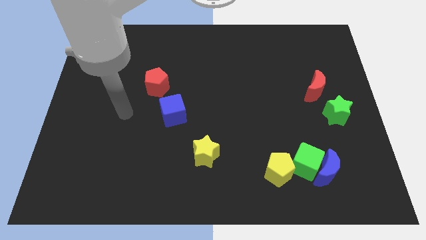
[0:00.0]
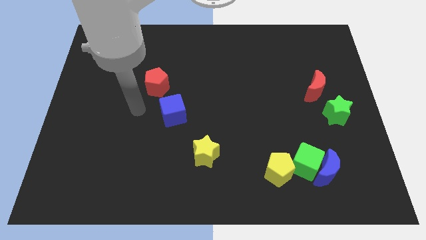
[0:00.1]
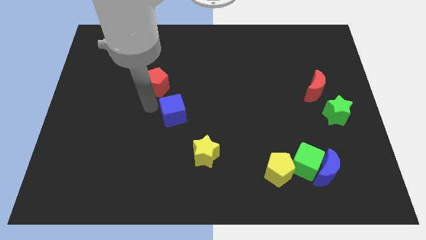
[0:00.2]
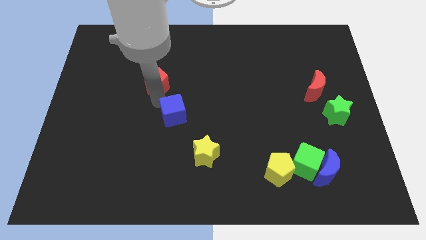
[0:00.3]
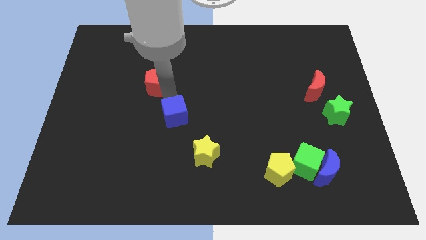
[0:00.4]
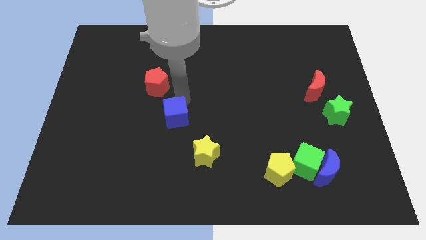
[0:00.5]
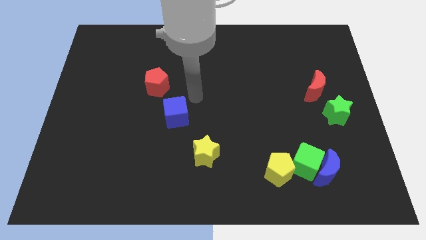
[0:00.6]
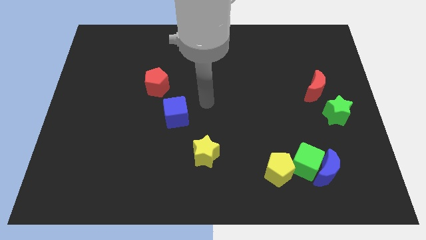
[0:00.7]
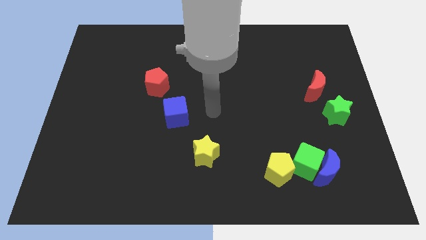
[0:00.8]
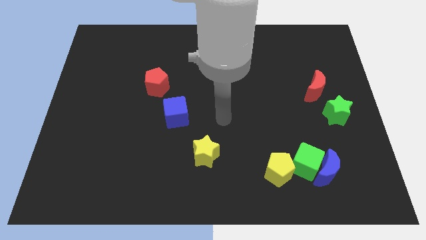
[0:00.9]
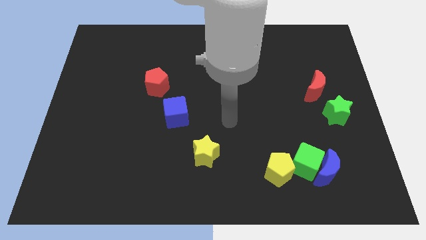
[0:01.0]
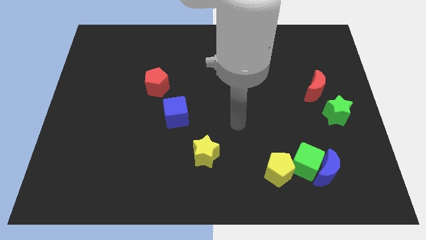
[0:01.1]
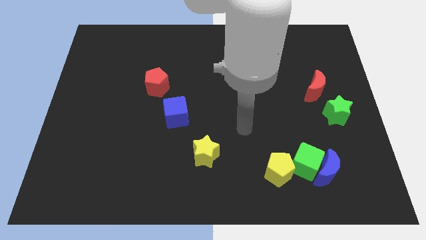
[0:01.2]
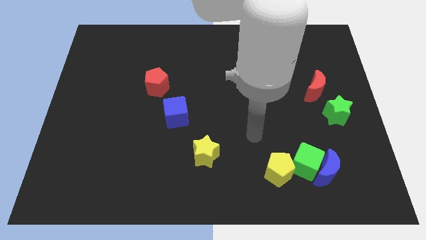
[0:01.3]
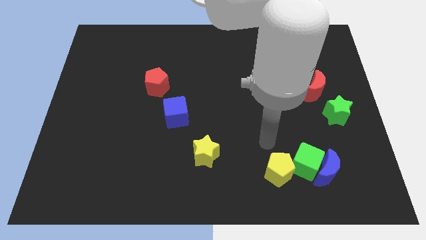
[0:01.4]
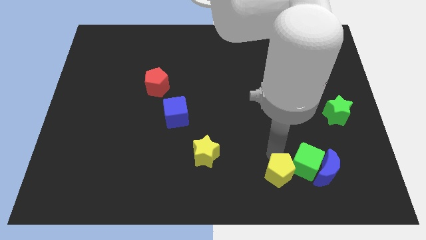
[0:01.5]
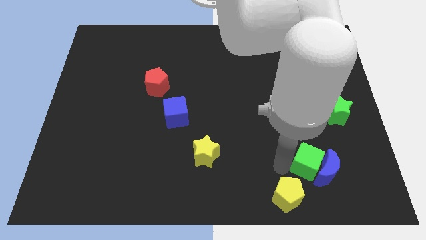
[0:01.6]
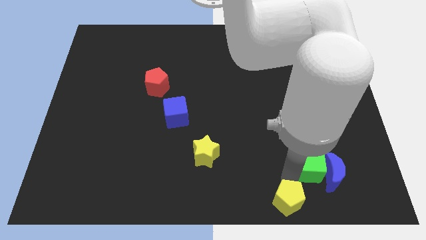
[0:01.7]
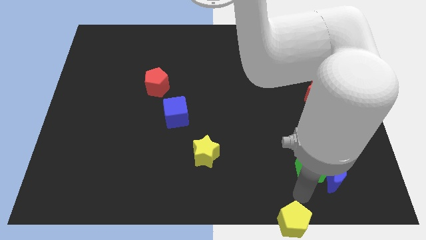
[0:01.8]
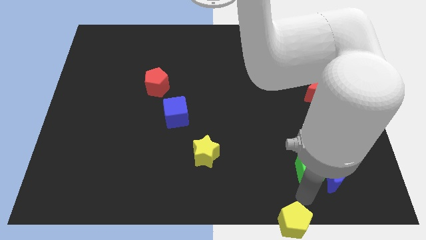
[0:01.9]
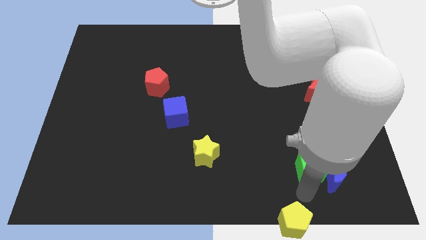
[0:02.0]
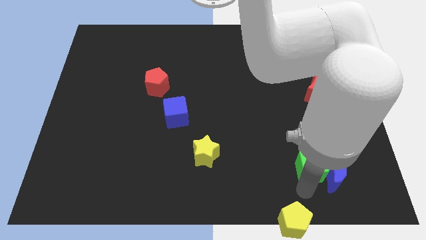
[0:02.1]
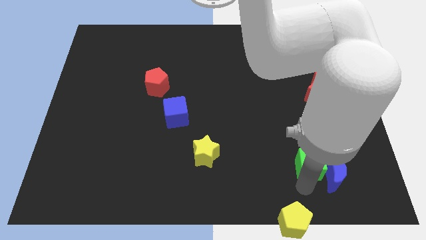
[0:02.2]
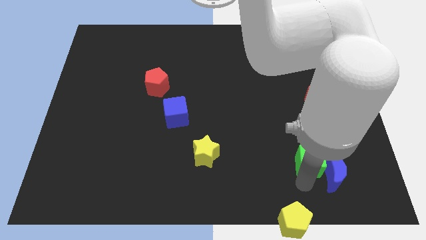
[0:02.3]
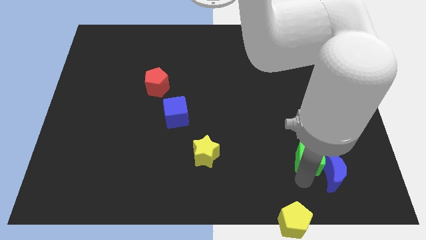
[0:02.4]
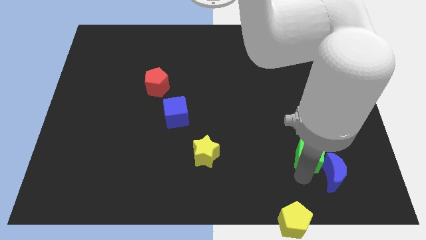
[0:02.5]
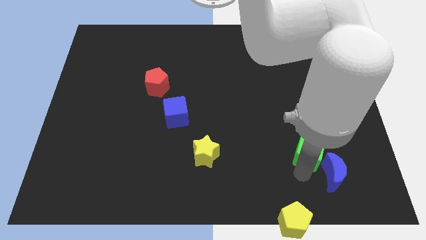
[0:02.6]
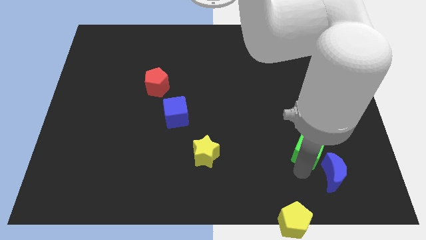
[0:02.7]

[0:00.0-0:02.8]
move the green cube away from the blue moon and yellow pentagon

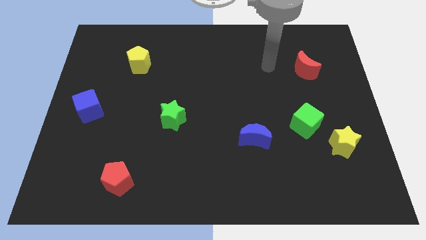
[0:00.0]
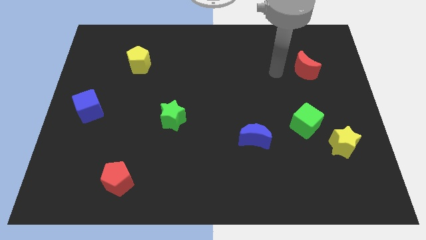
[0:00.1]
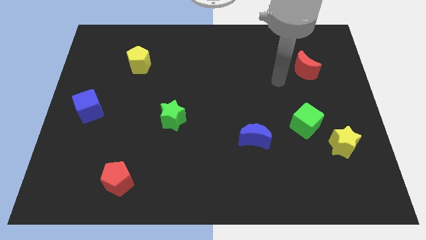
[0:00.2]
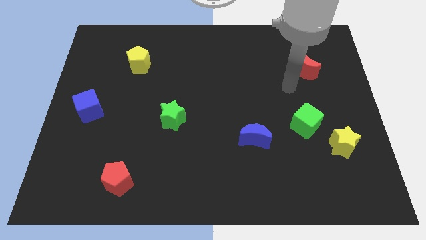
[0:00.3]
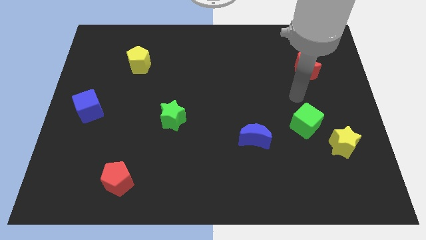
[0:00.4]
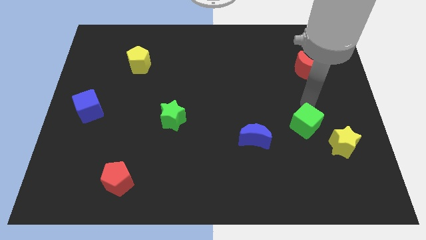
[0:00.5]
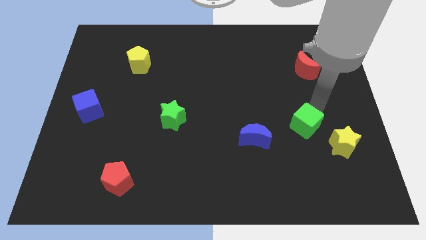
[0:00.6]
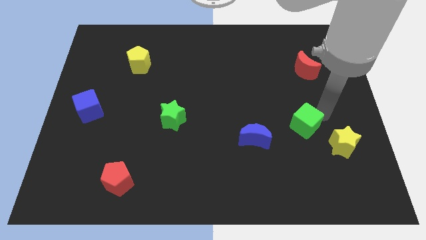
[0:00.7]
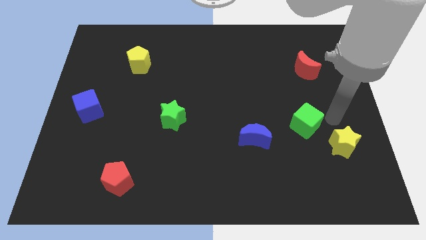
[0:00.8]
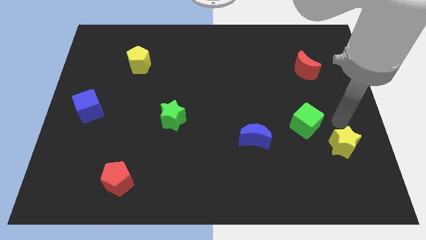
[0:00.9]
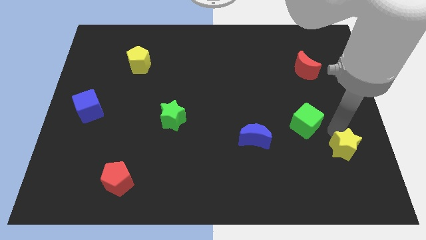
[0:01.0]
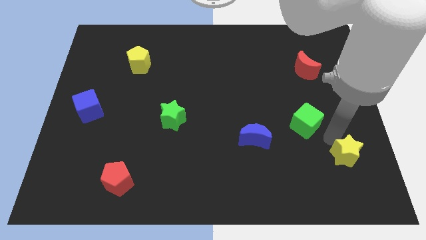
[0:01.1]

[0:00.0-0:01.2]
separate the green cube from the yellow star

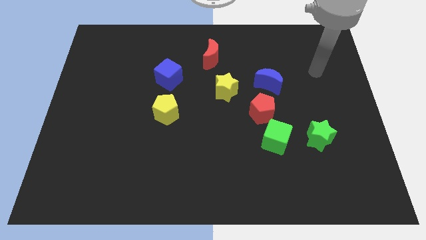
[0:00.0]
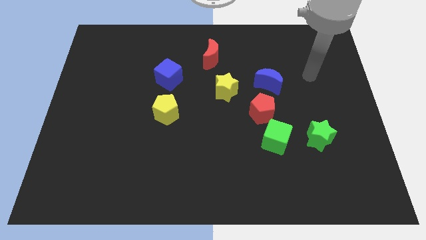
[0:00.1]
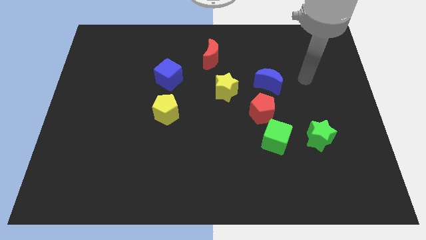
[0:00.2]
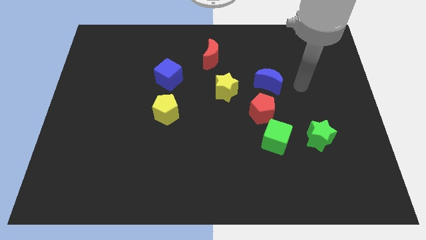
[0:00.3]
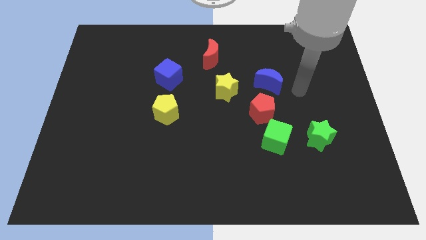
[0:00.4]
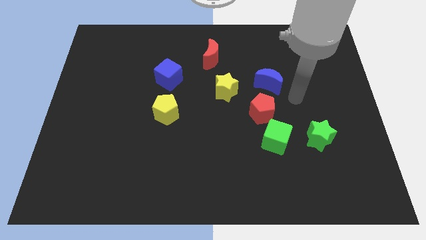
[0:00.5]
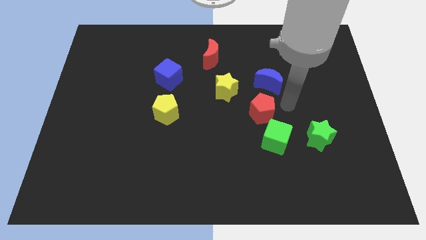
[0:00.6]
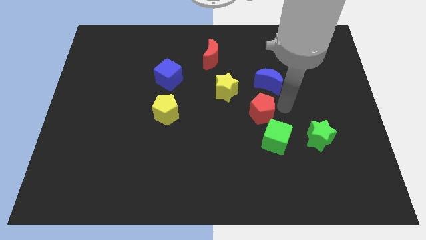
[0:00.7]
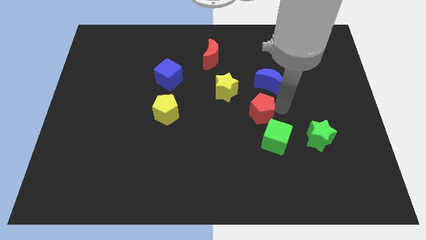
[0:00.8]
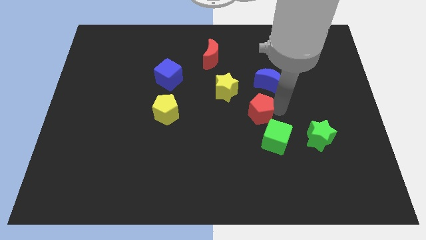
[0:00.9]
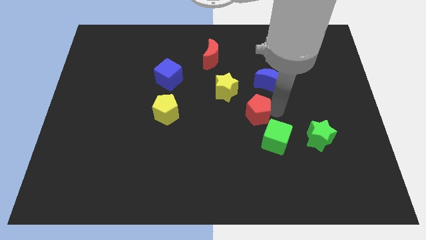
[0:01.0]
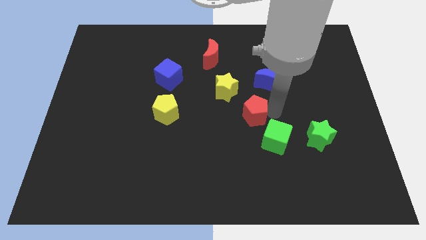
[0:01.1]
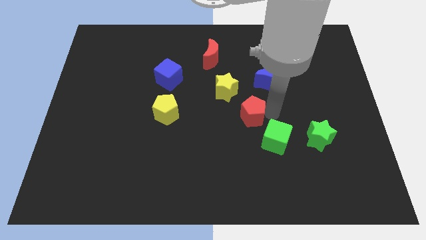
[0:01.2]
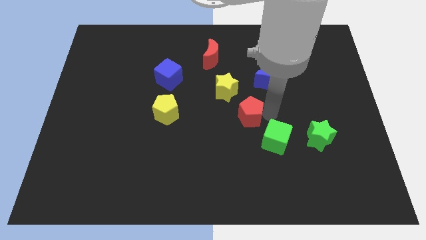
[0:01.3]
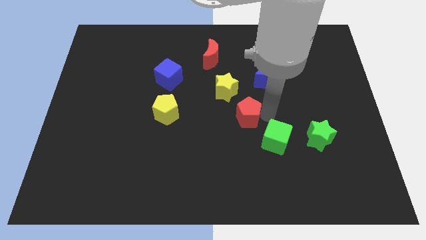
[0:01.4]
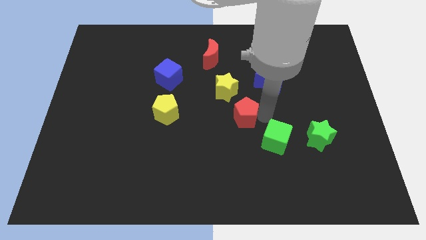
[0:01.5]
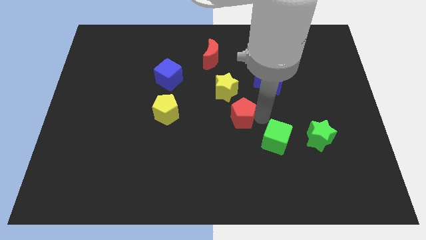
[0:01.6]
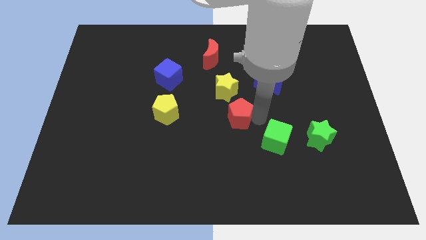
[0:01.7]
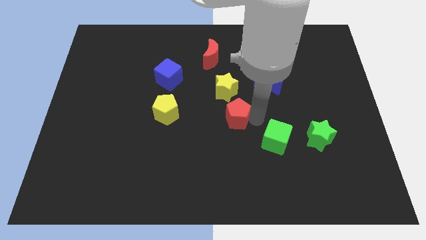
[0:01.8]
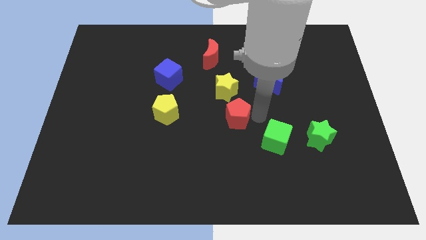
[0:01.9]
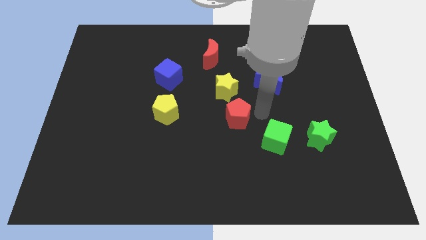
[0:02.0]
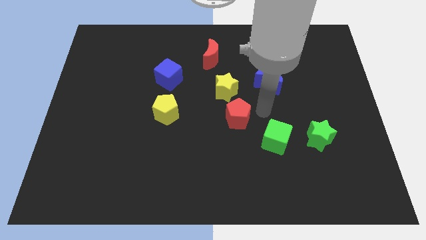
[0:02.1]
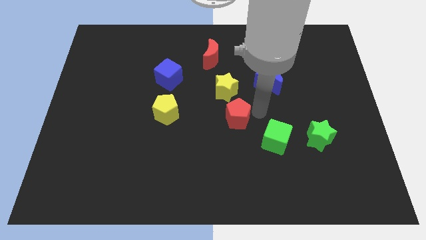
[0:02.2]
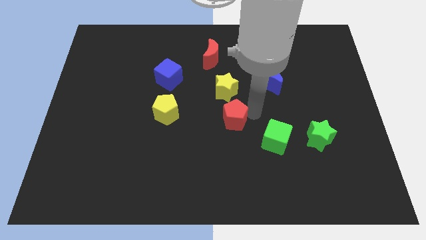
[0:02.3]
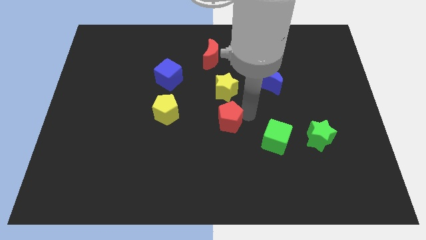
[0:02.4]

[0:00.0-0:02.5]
pull the red pentagon apart from the green cube and blue moon

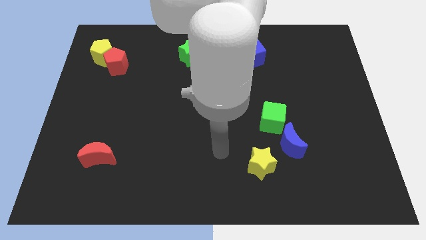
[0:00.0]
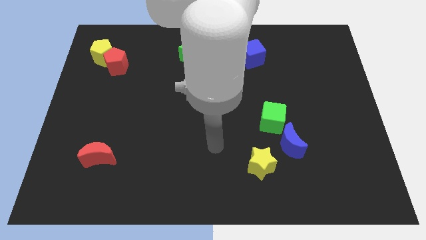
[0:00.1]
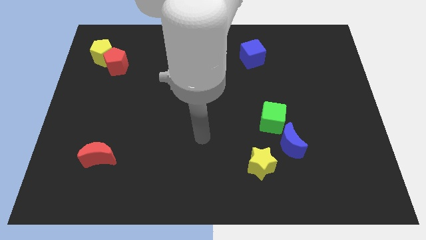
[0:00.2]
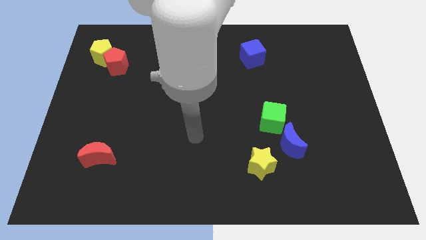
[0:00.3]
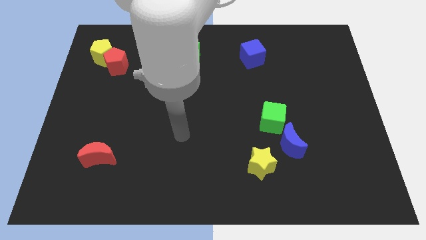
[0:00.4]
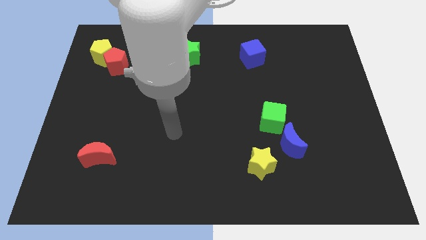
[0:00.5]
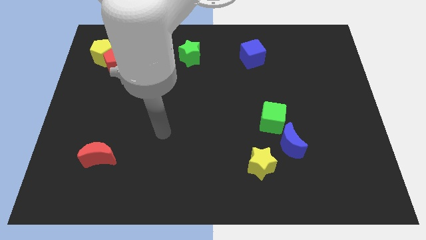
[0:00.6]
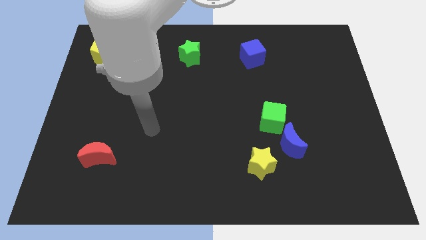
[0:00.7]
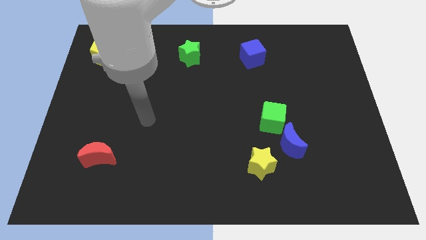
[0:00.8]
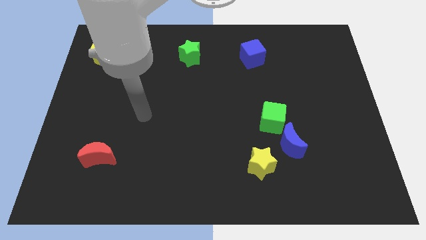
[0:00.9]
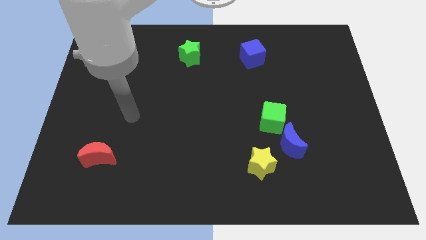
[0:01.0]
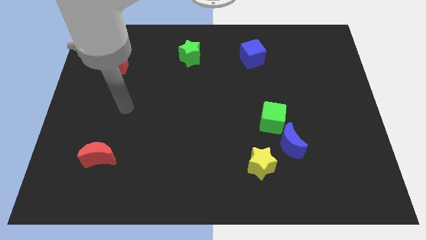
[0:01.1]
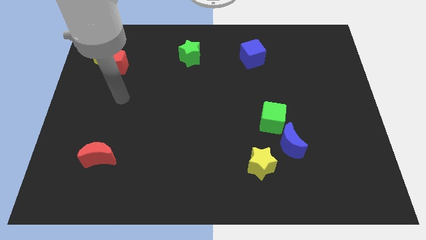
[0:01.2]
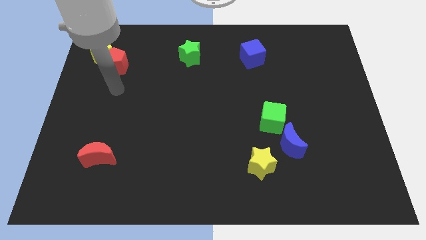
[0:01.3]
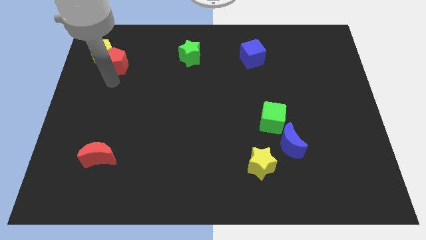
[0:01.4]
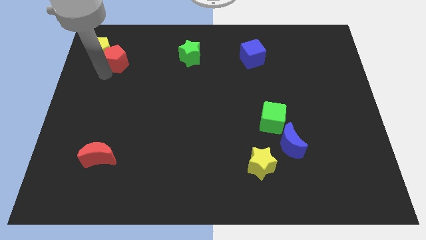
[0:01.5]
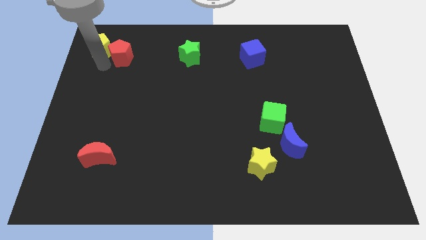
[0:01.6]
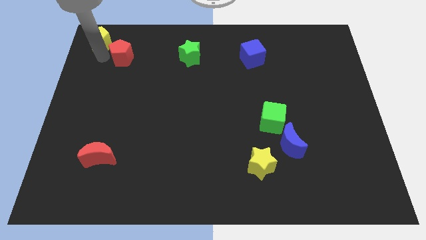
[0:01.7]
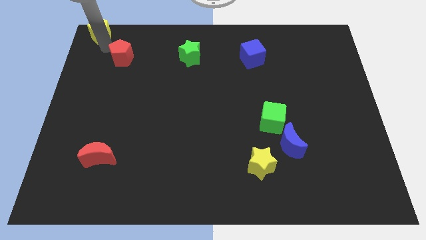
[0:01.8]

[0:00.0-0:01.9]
separate the red pentagon from the yellow pentagon

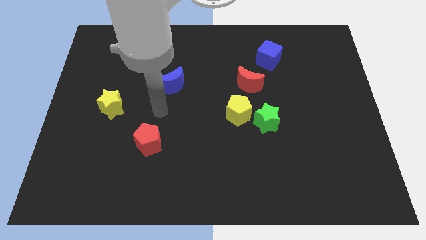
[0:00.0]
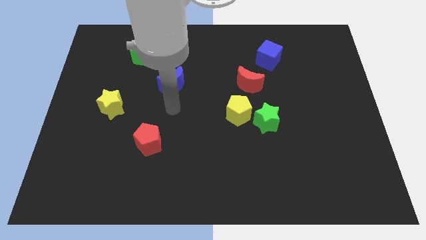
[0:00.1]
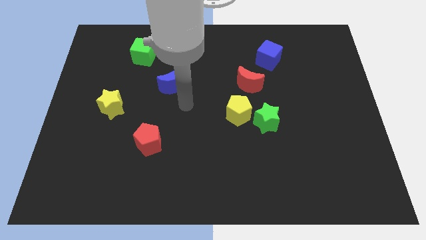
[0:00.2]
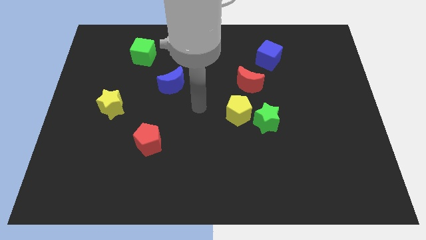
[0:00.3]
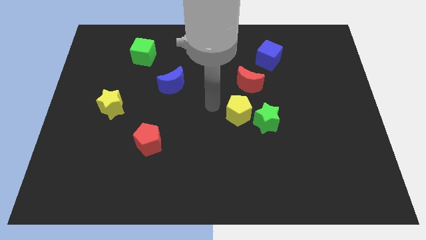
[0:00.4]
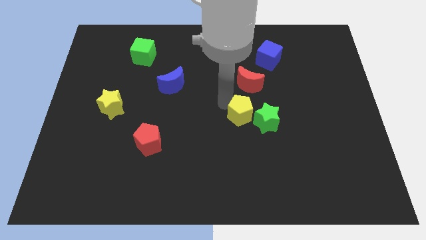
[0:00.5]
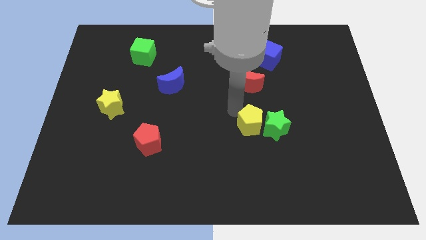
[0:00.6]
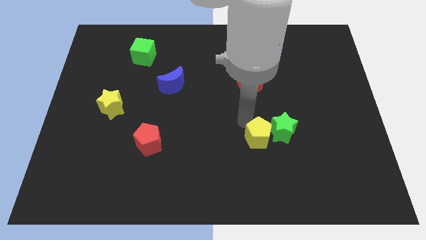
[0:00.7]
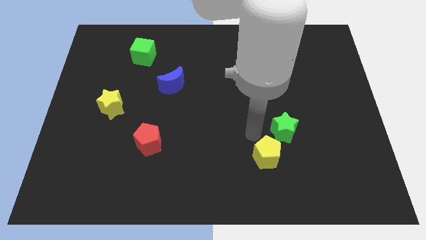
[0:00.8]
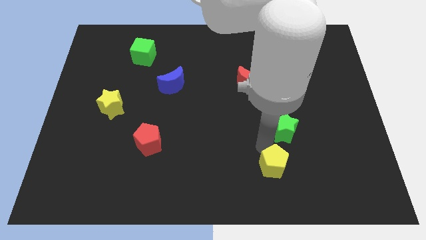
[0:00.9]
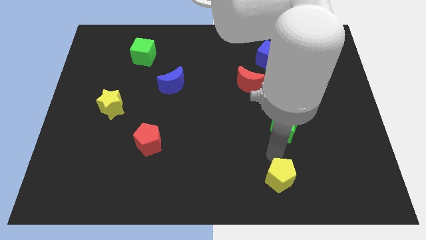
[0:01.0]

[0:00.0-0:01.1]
separate the green star from the yellow pentagon
